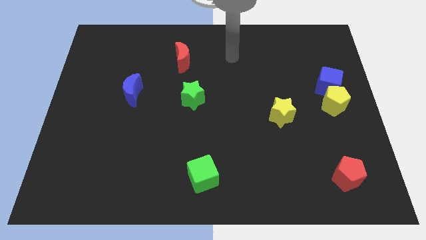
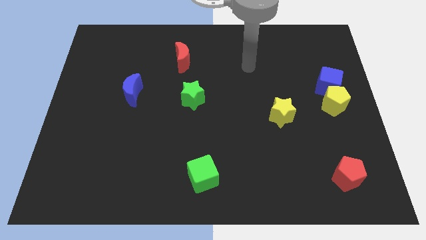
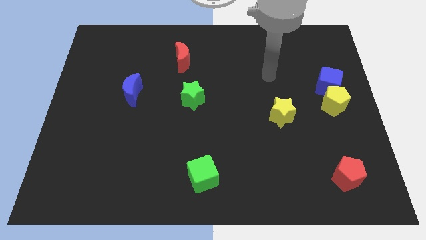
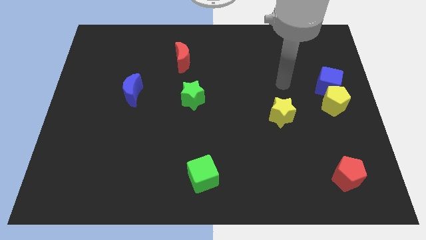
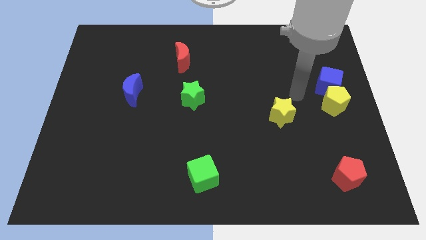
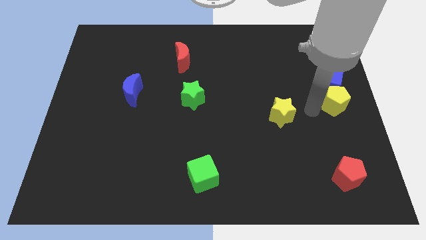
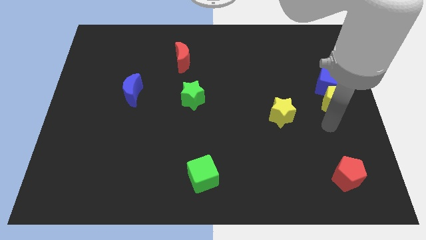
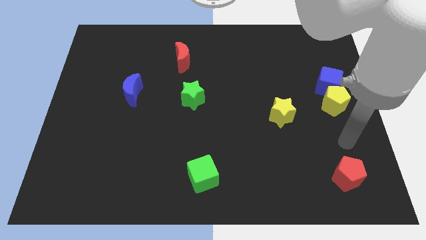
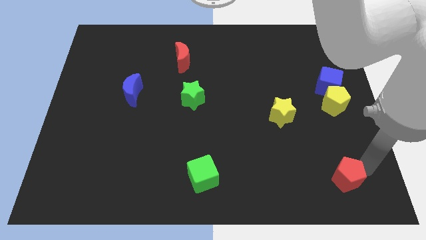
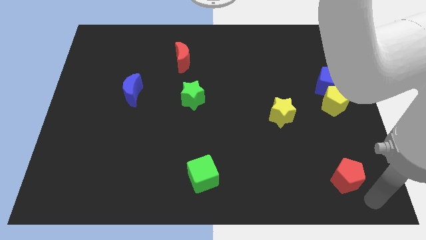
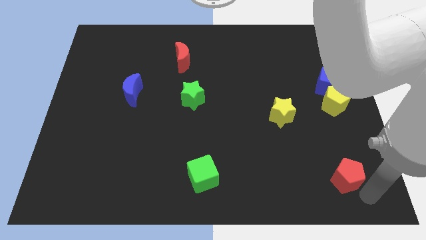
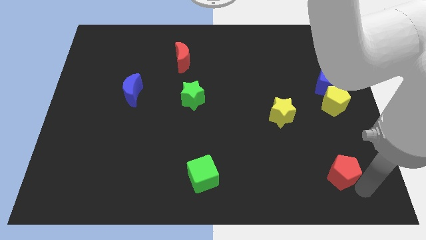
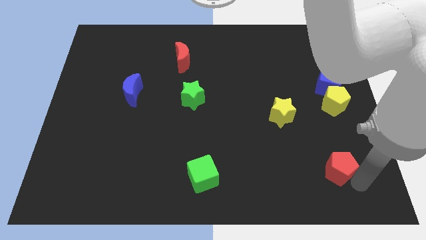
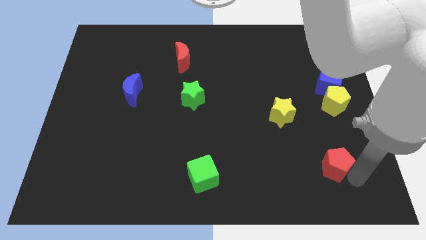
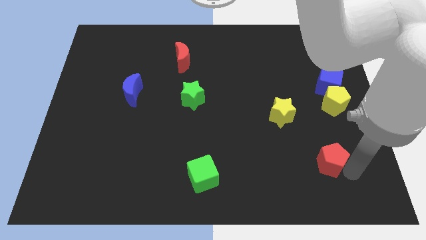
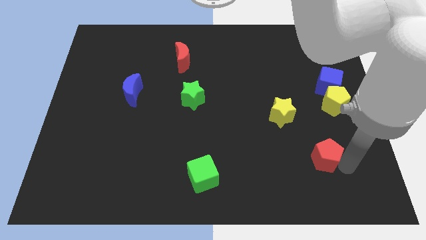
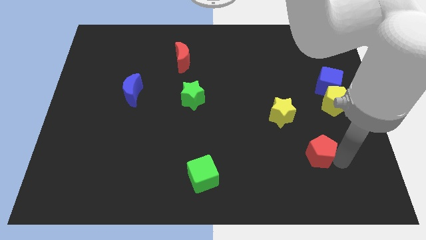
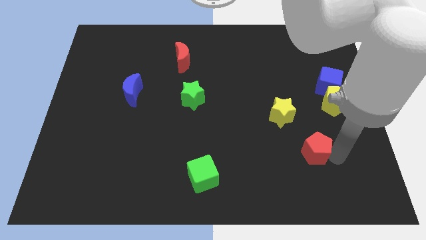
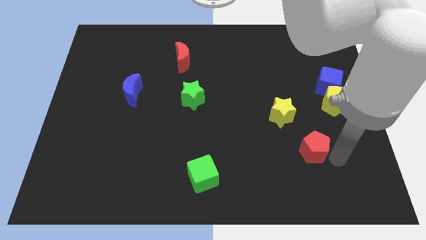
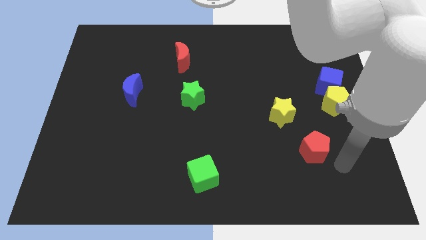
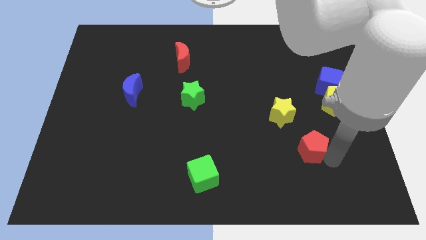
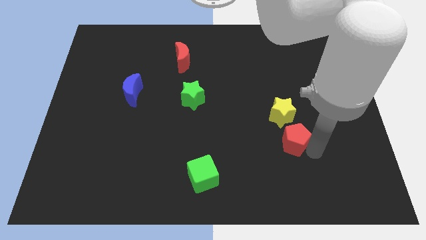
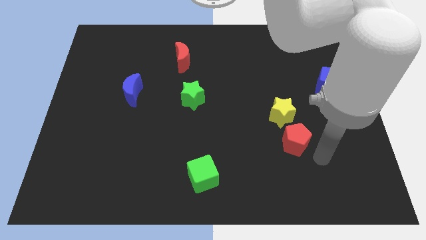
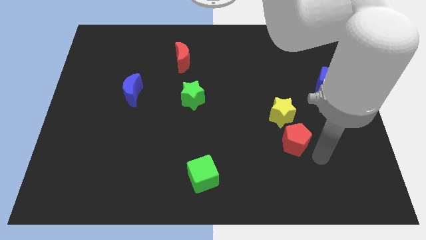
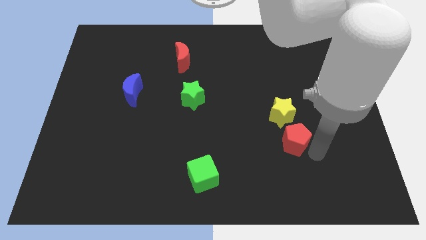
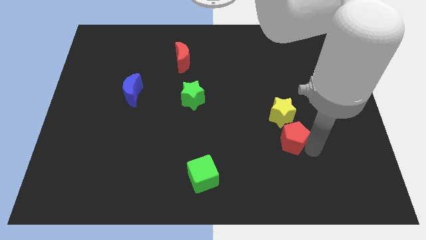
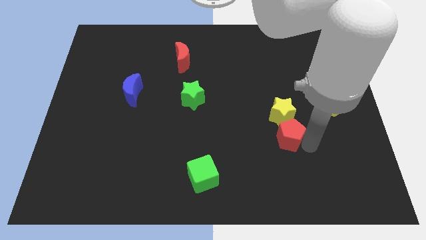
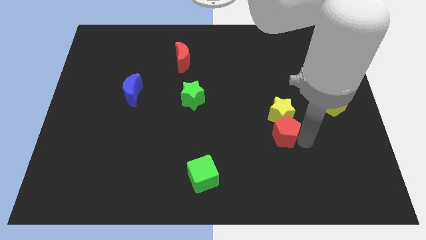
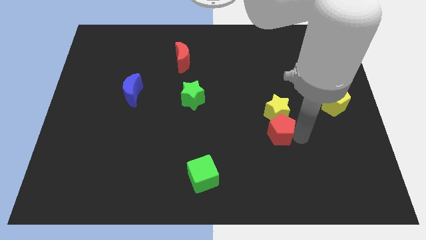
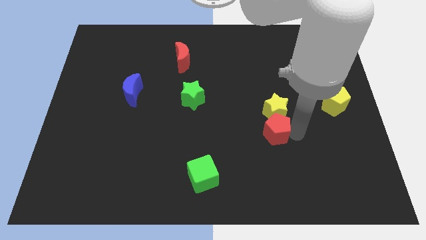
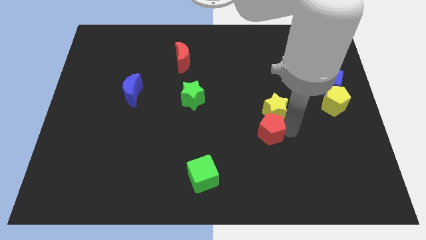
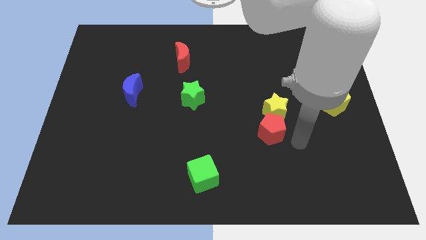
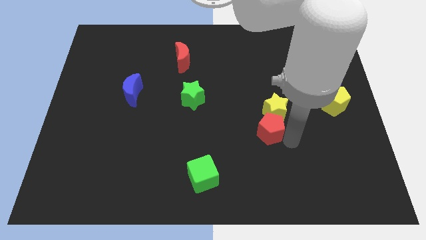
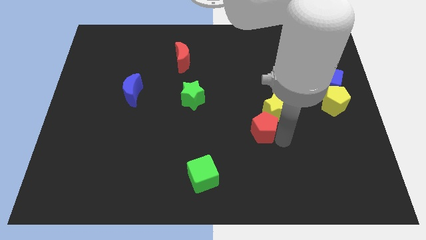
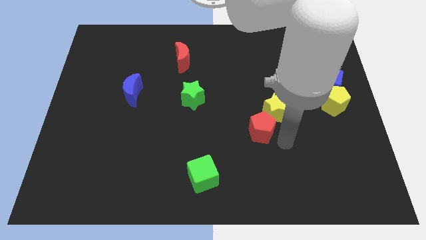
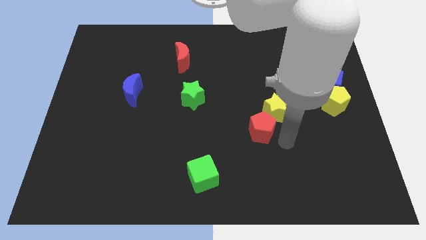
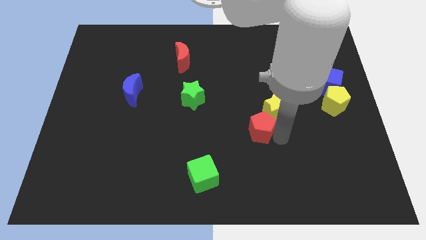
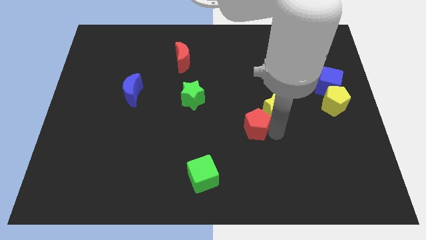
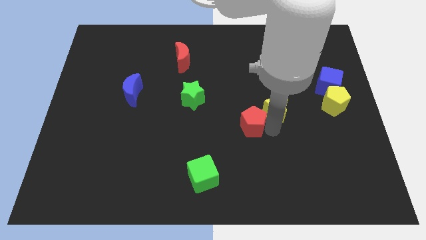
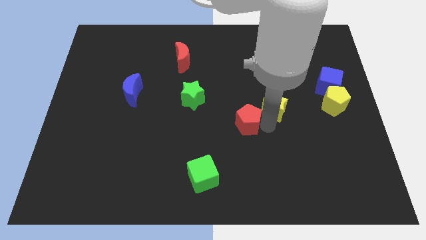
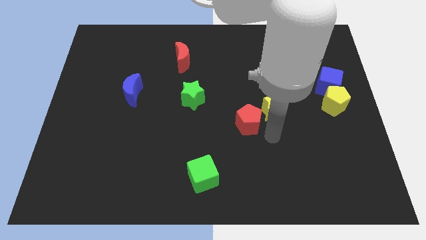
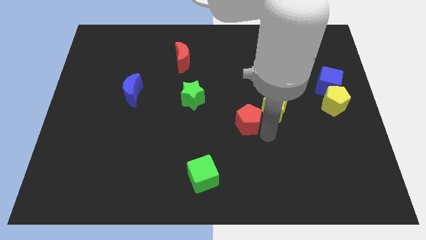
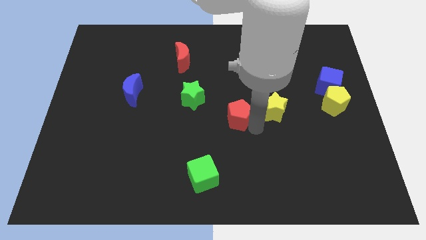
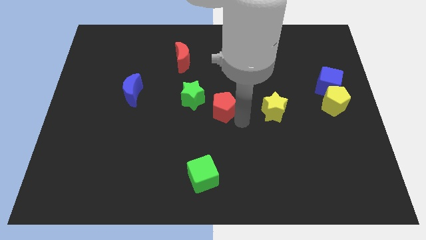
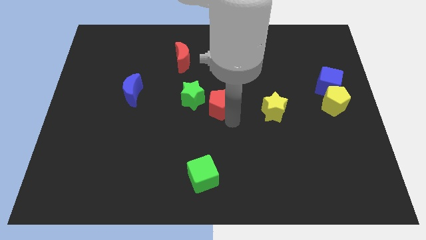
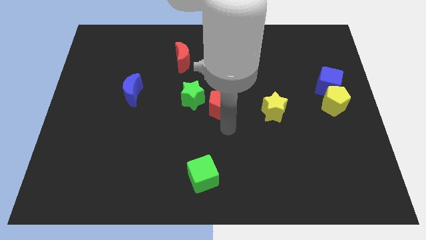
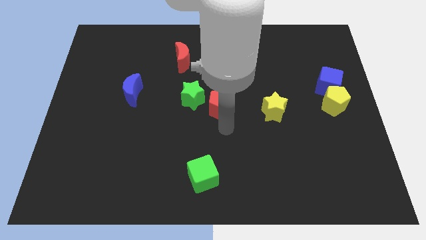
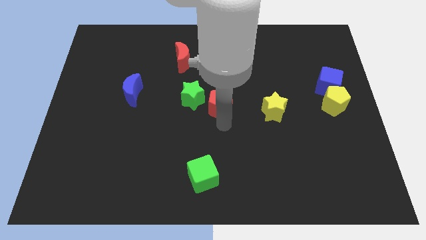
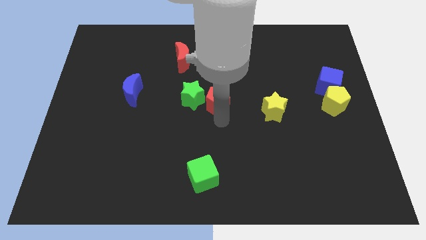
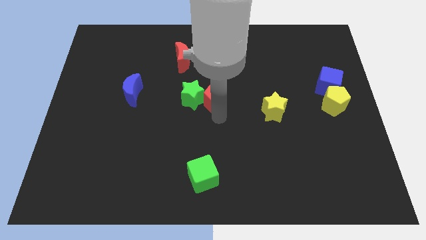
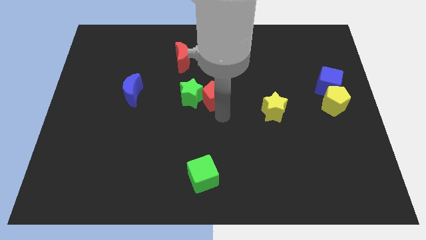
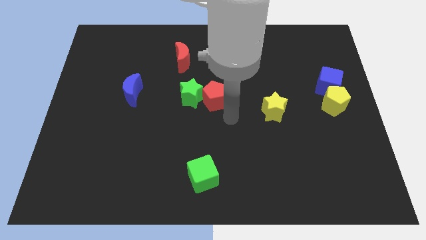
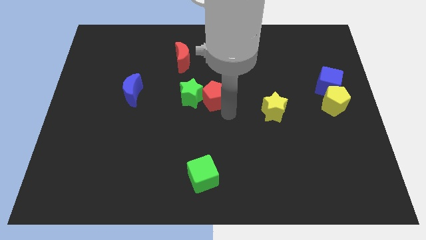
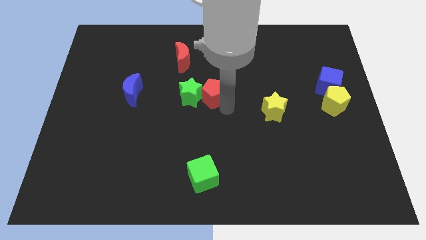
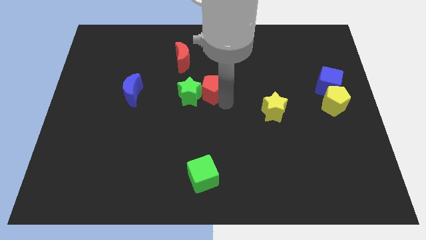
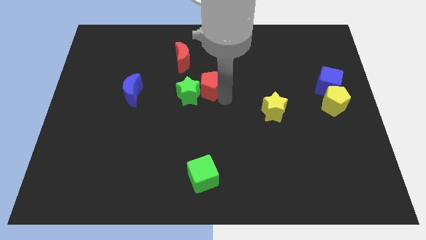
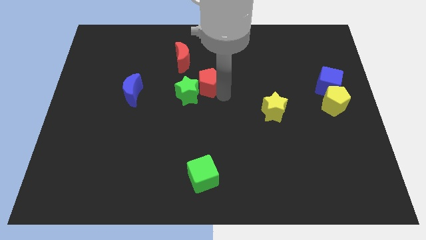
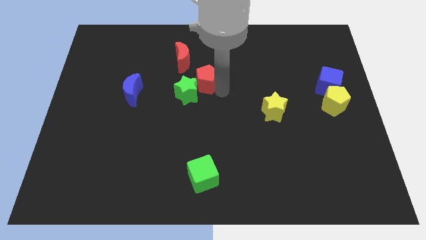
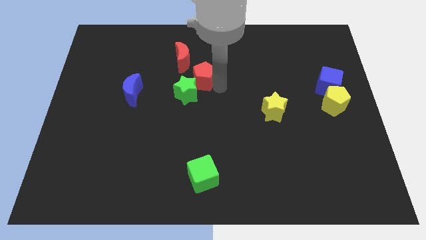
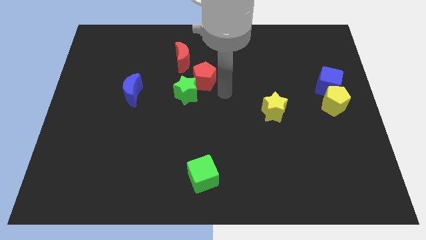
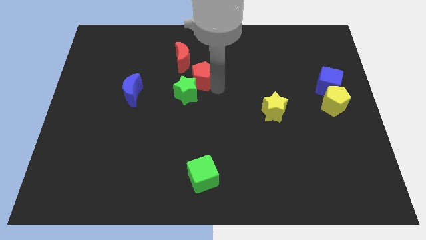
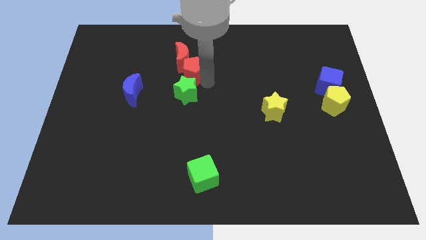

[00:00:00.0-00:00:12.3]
slide the red pentagon to the red moon
